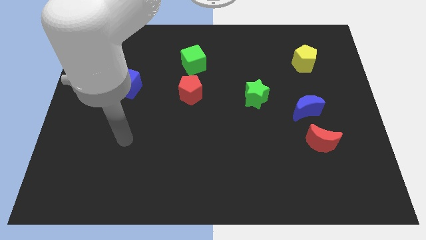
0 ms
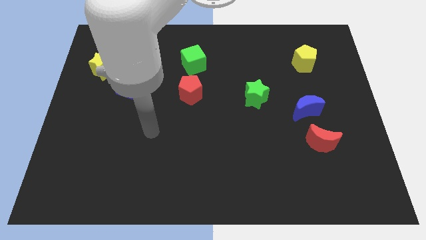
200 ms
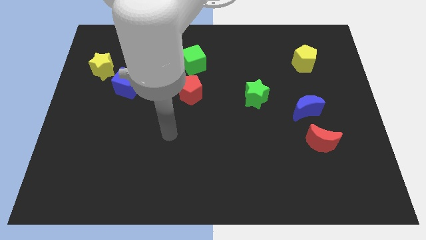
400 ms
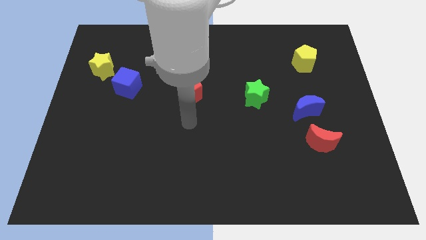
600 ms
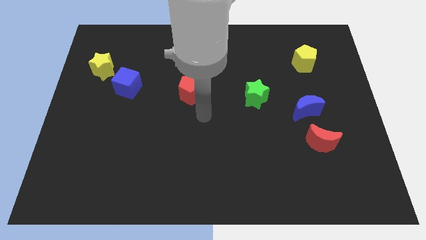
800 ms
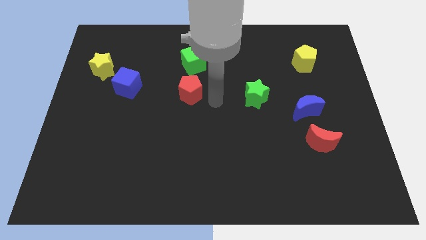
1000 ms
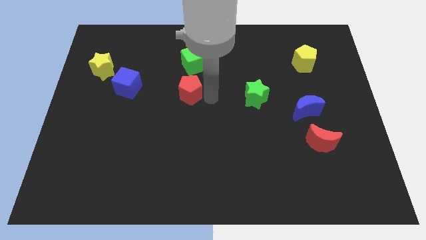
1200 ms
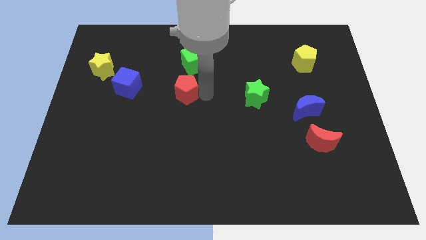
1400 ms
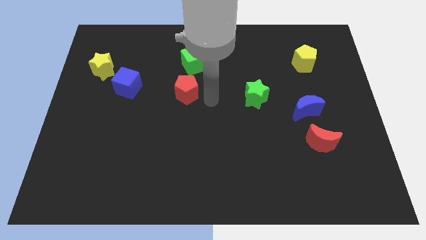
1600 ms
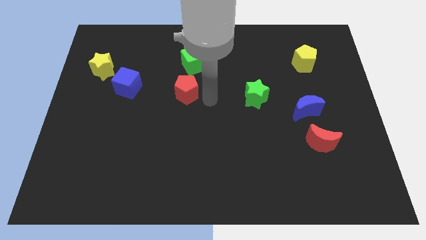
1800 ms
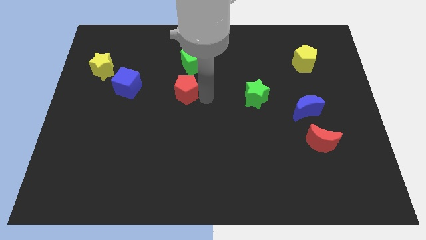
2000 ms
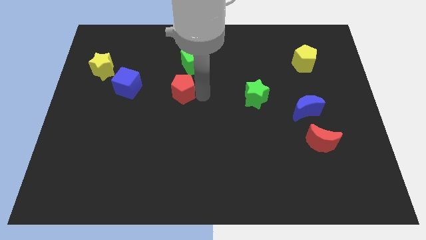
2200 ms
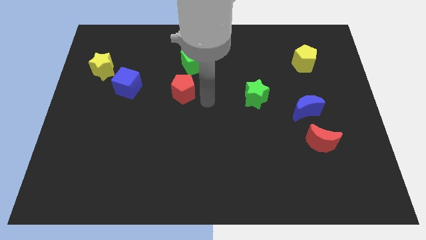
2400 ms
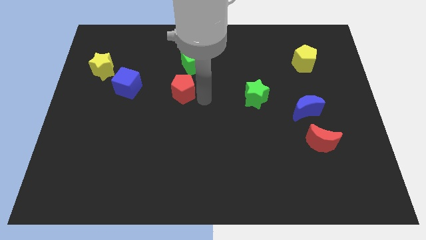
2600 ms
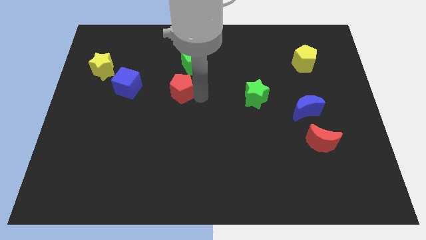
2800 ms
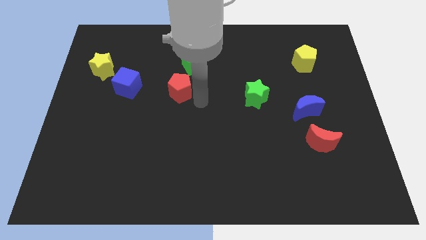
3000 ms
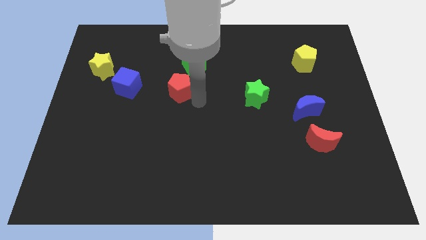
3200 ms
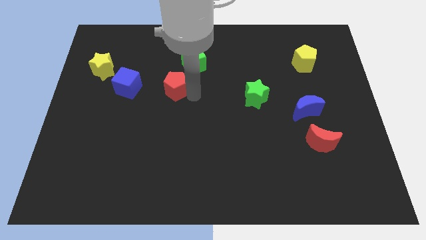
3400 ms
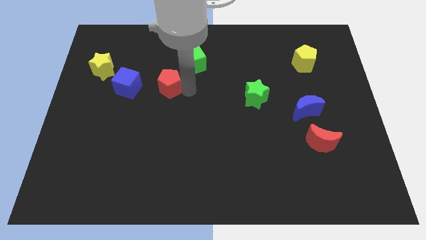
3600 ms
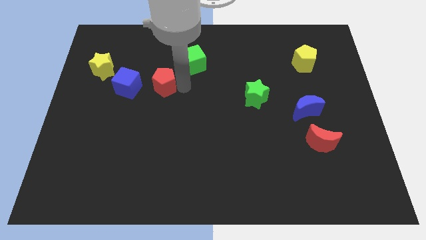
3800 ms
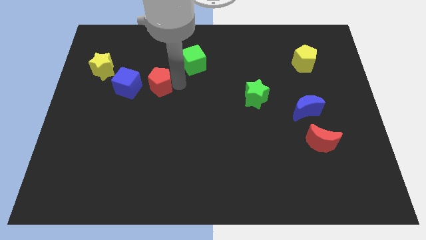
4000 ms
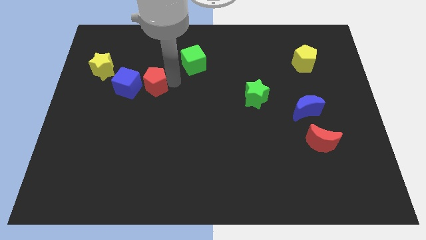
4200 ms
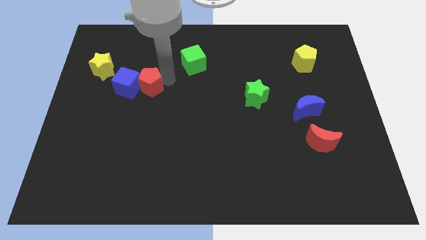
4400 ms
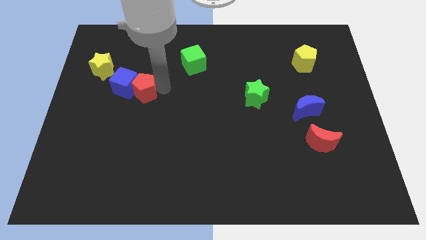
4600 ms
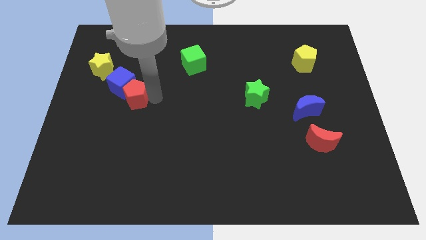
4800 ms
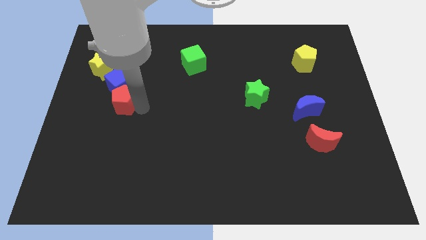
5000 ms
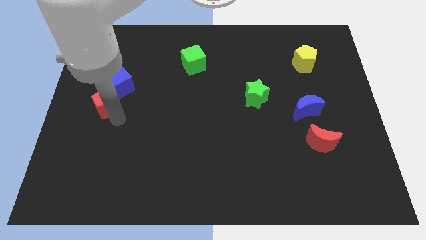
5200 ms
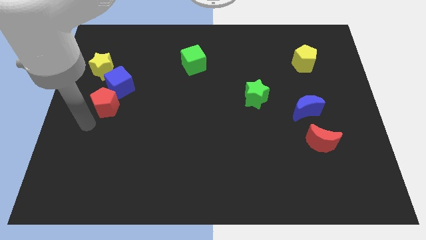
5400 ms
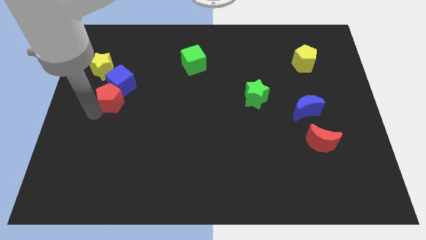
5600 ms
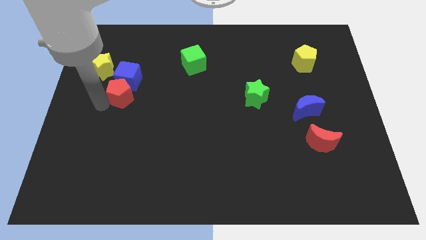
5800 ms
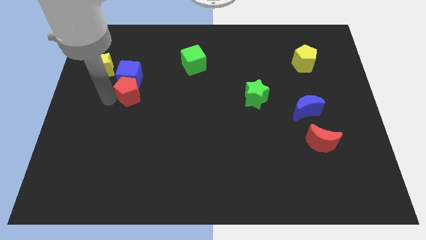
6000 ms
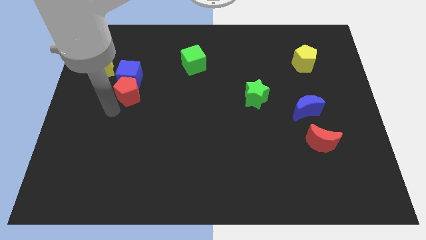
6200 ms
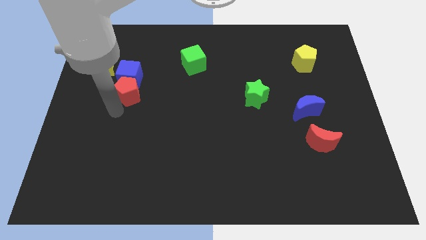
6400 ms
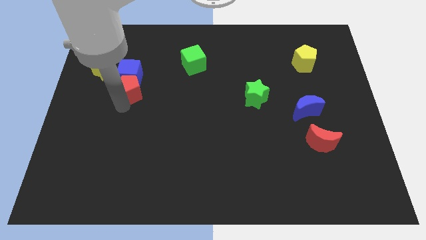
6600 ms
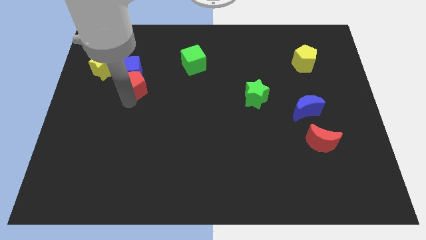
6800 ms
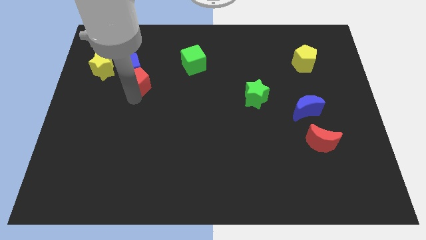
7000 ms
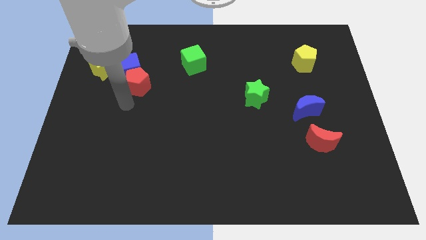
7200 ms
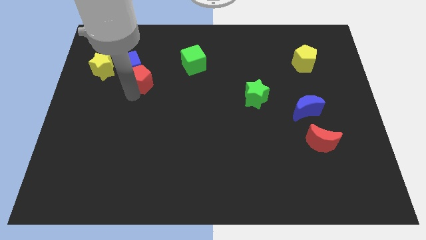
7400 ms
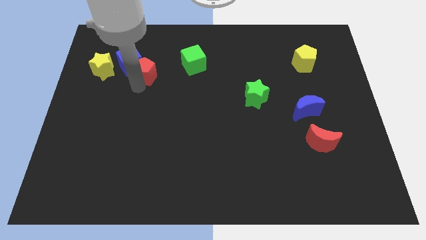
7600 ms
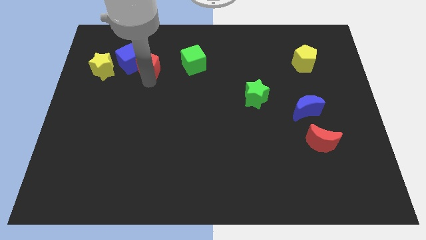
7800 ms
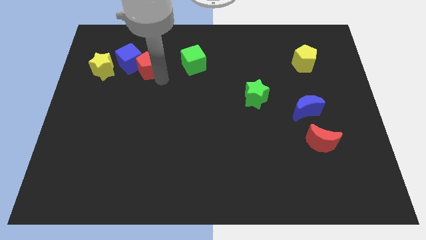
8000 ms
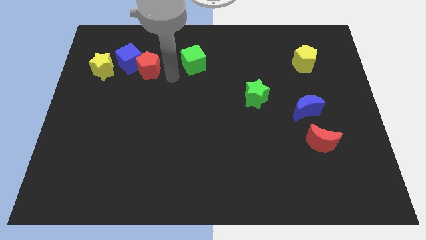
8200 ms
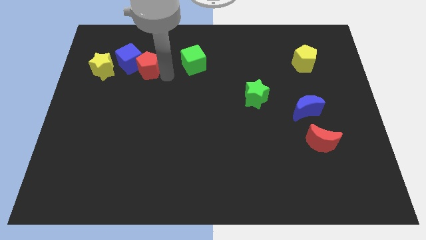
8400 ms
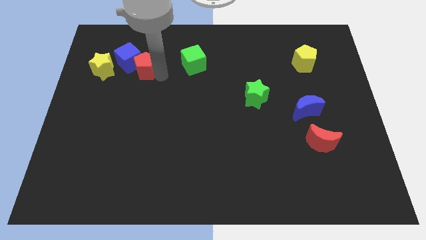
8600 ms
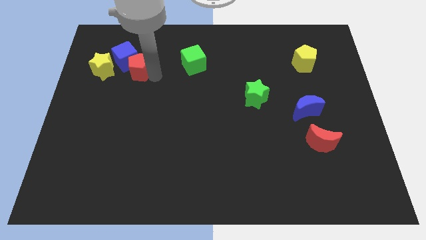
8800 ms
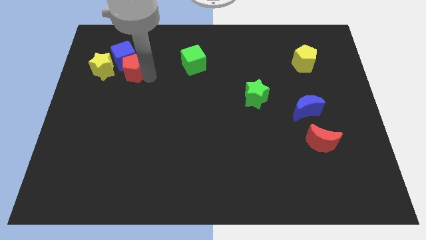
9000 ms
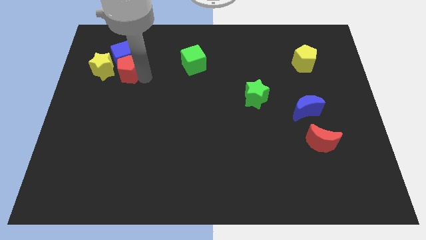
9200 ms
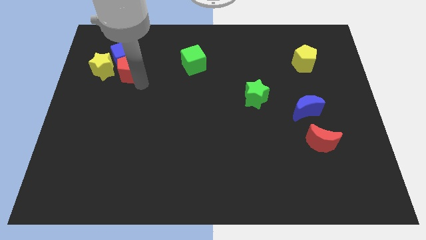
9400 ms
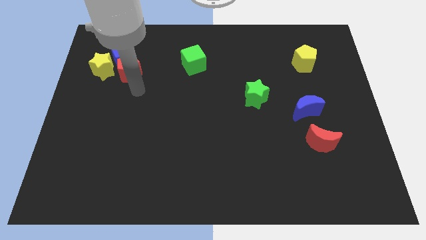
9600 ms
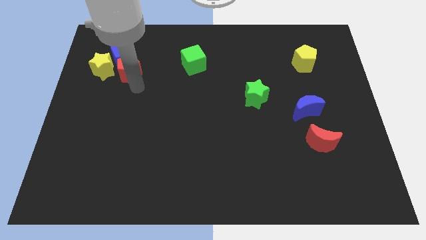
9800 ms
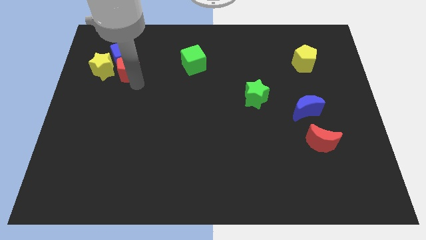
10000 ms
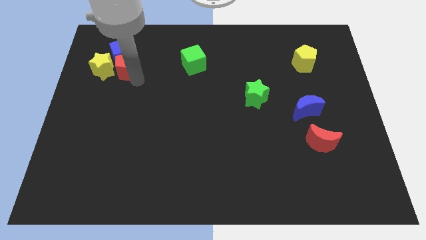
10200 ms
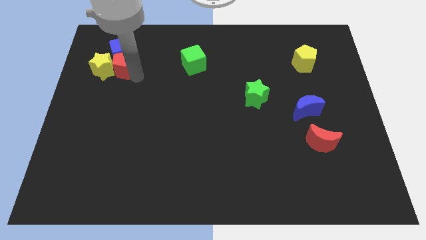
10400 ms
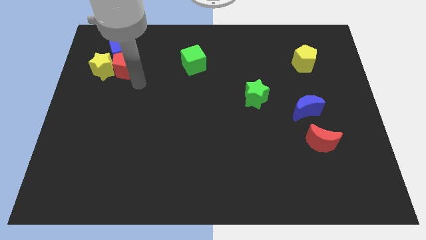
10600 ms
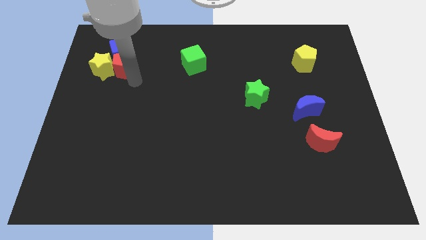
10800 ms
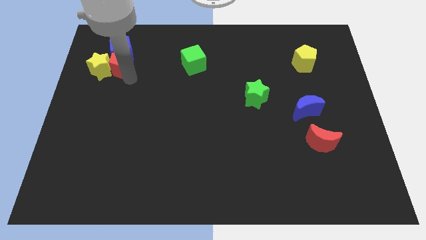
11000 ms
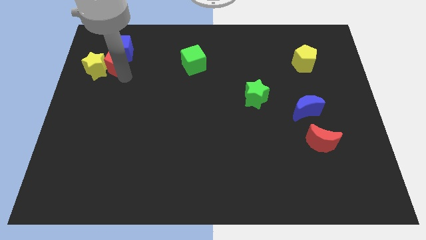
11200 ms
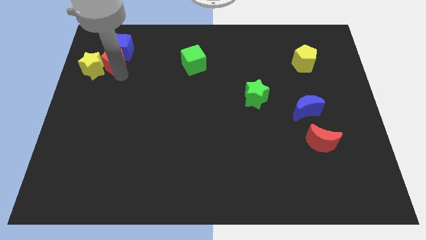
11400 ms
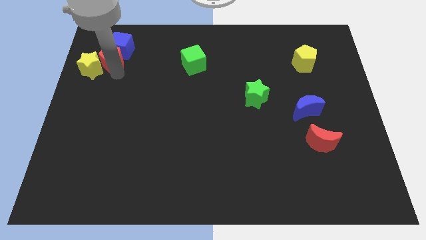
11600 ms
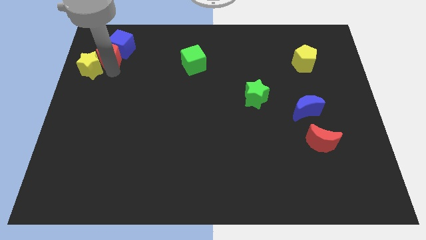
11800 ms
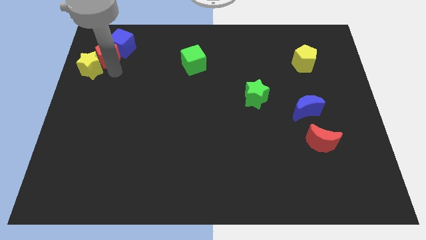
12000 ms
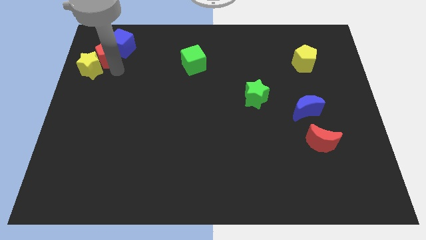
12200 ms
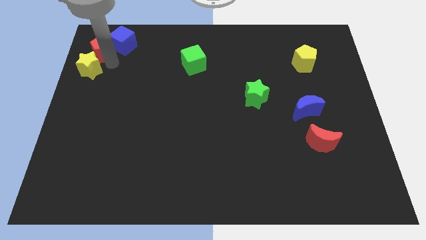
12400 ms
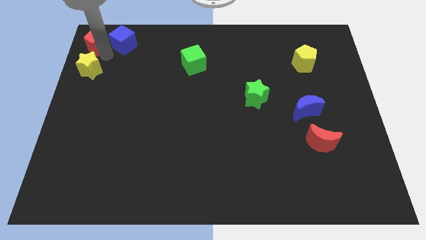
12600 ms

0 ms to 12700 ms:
push the red pentagon to the top left corner
